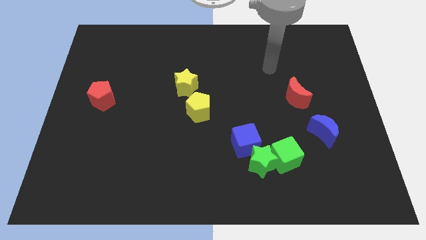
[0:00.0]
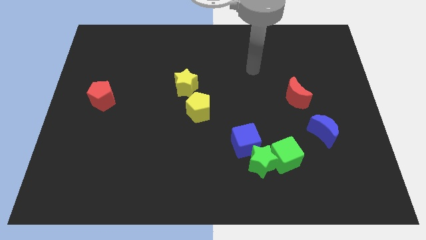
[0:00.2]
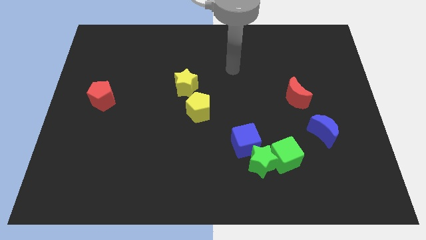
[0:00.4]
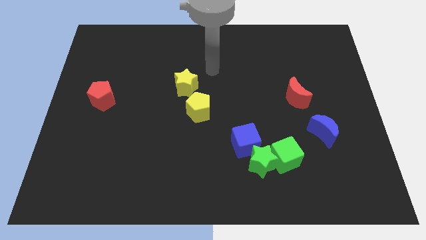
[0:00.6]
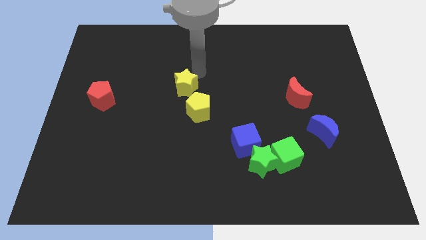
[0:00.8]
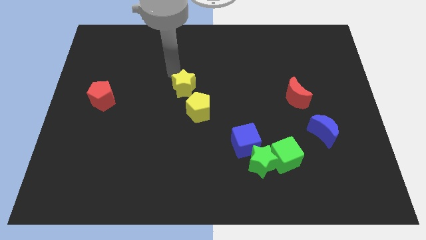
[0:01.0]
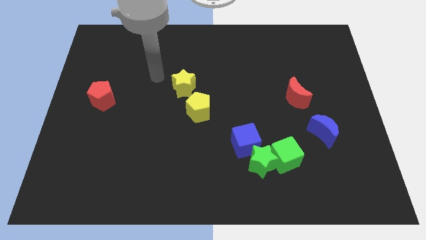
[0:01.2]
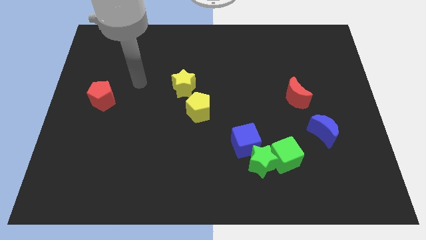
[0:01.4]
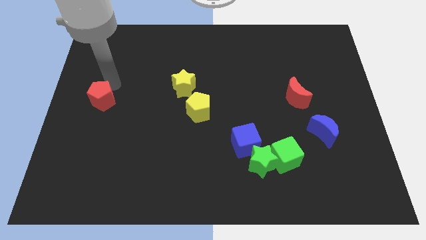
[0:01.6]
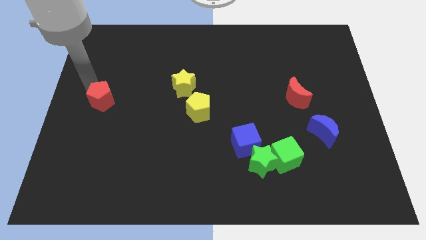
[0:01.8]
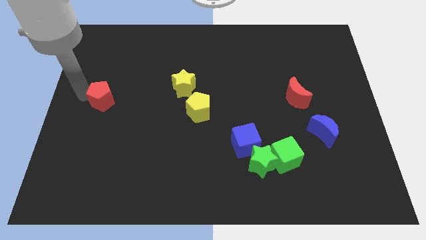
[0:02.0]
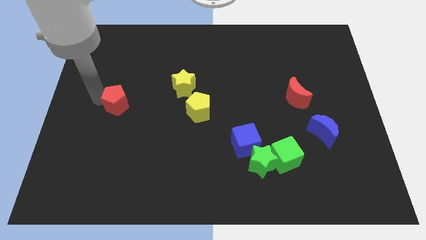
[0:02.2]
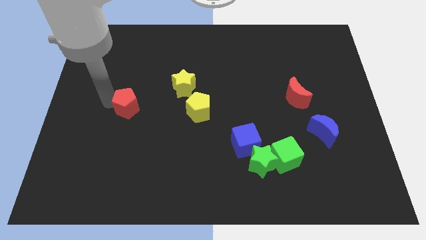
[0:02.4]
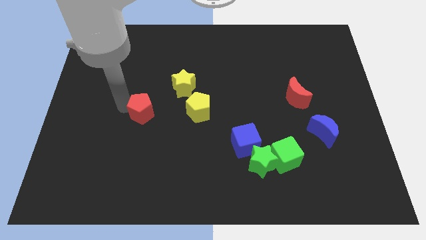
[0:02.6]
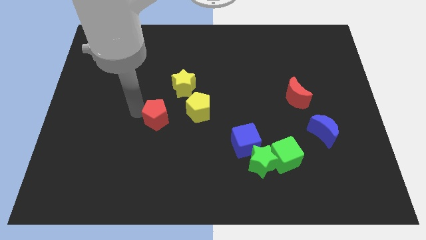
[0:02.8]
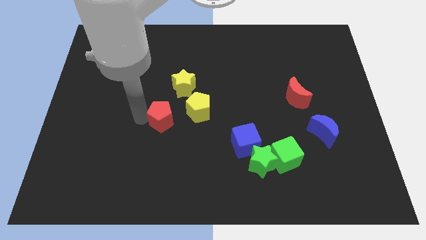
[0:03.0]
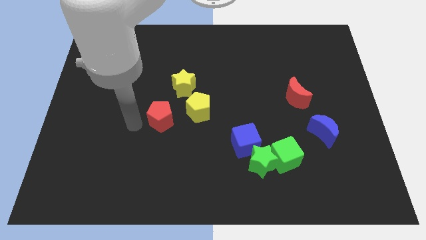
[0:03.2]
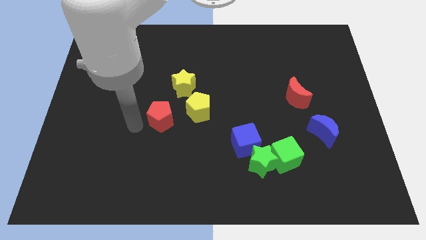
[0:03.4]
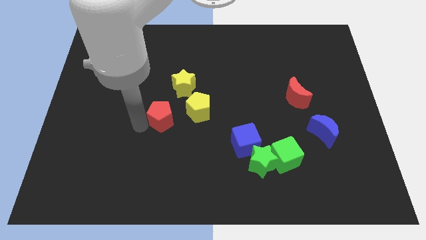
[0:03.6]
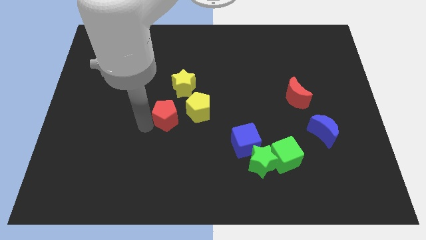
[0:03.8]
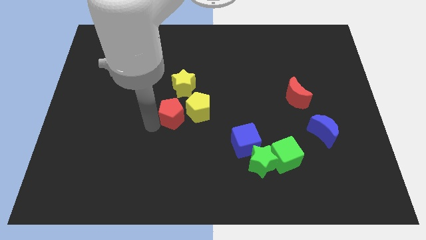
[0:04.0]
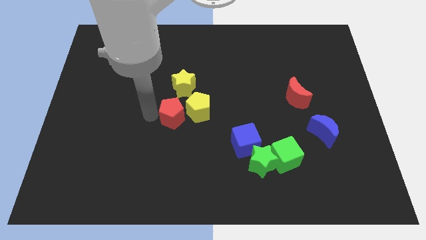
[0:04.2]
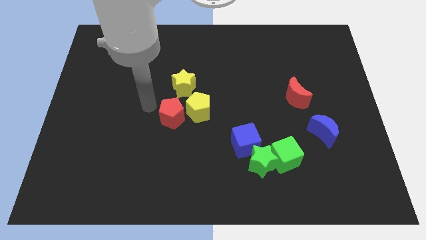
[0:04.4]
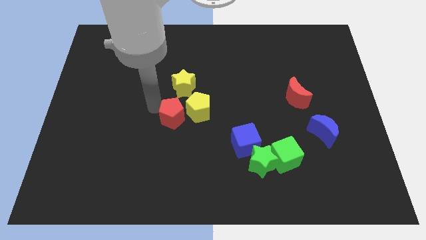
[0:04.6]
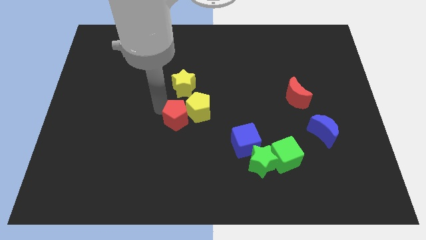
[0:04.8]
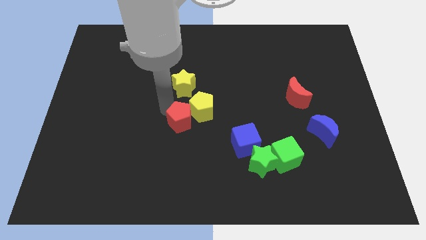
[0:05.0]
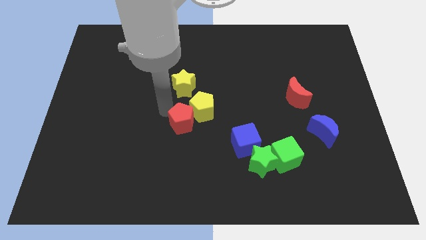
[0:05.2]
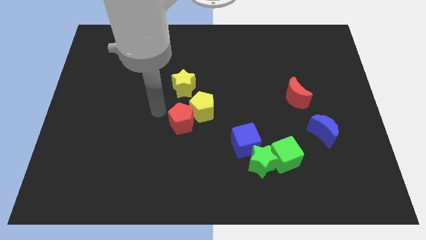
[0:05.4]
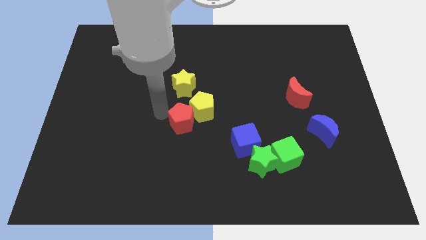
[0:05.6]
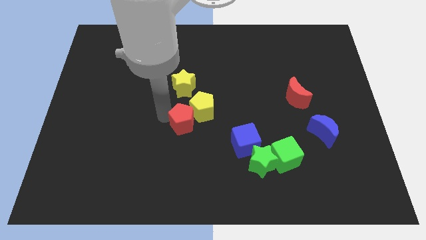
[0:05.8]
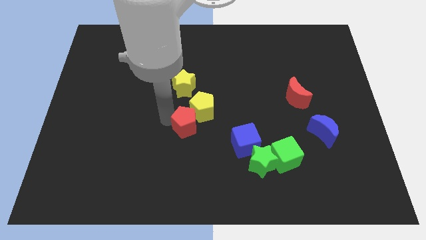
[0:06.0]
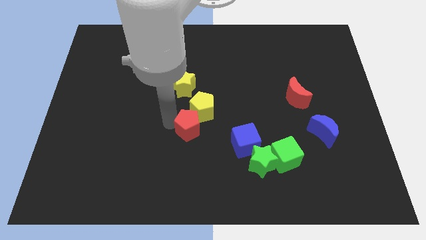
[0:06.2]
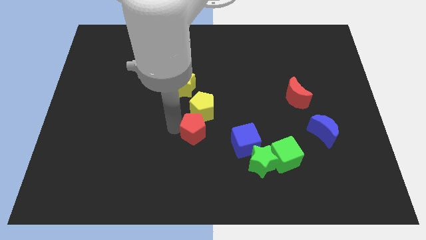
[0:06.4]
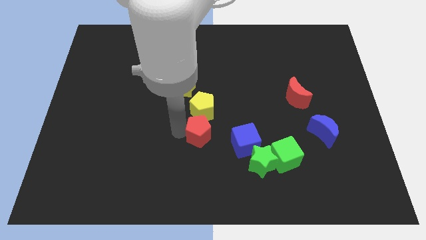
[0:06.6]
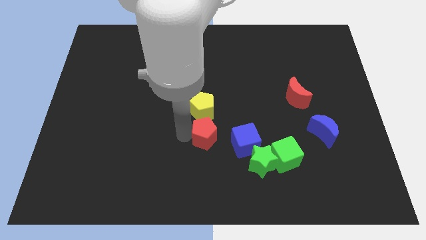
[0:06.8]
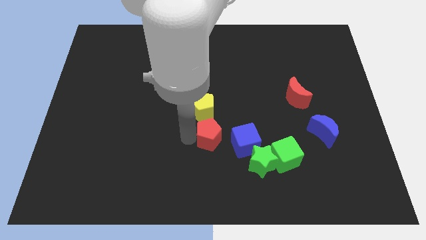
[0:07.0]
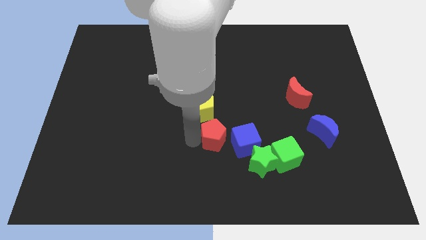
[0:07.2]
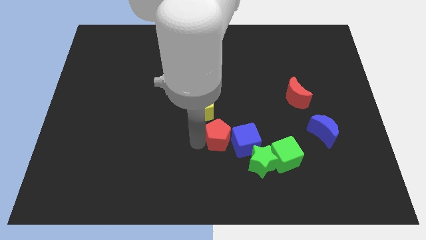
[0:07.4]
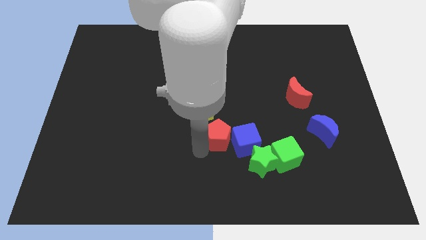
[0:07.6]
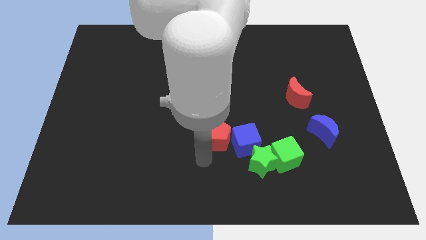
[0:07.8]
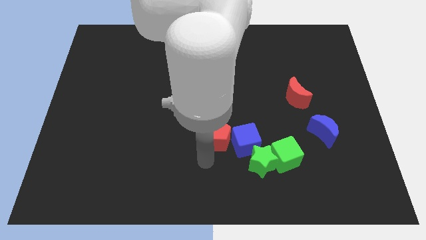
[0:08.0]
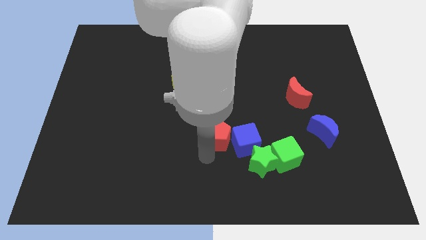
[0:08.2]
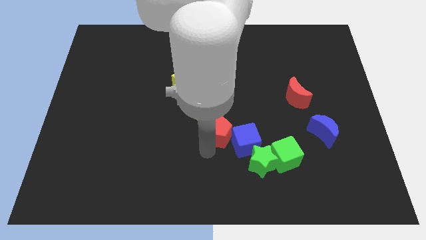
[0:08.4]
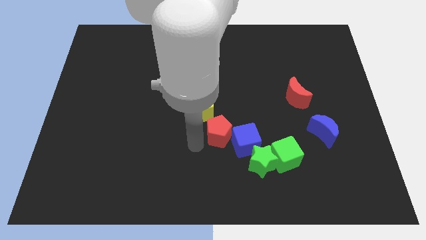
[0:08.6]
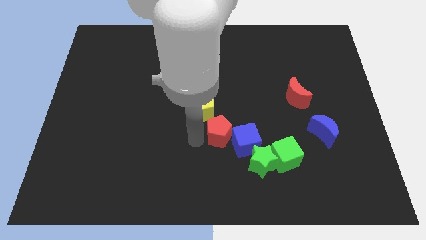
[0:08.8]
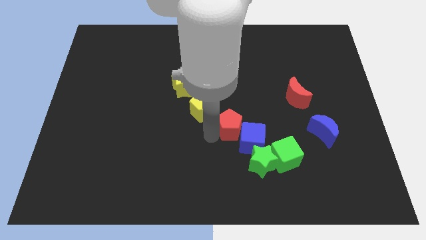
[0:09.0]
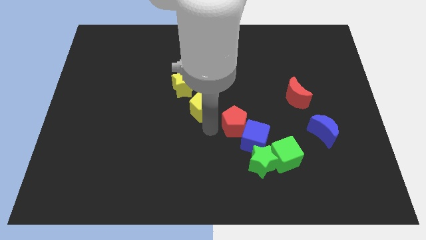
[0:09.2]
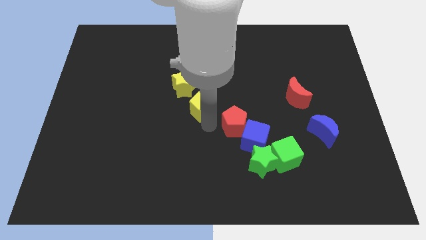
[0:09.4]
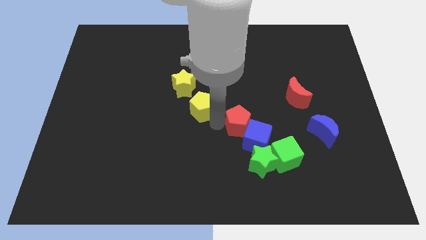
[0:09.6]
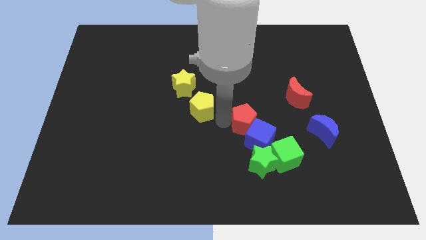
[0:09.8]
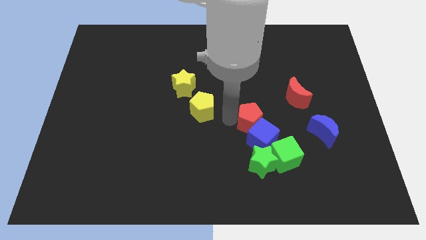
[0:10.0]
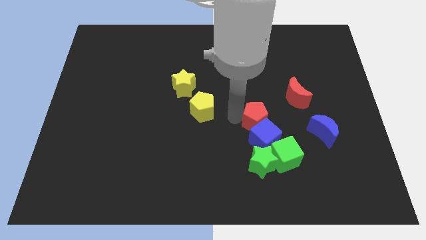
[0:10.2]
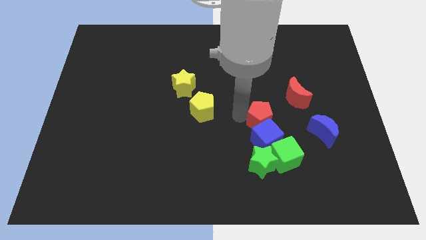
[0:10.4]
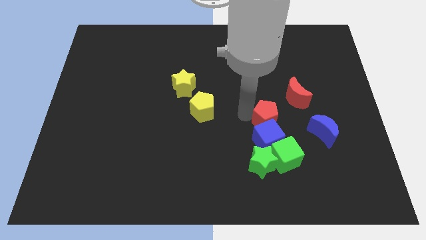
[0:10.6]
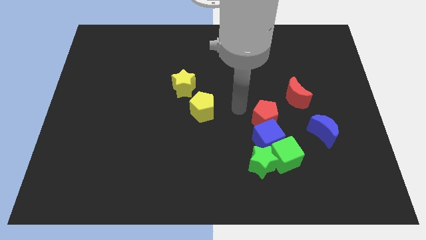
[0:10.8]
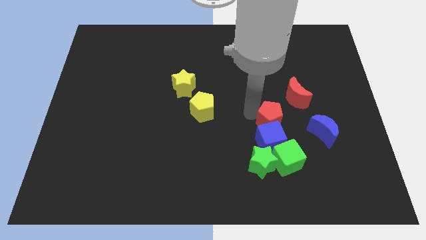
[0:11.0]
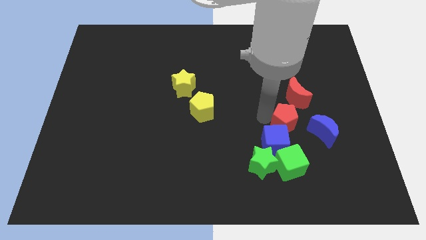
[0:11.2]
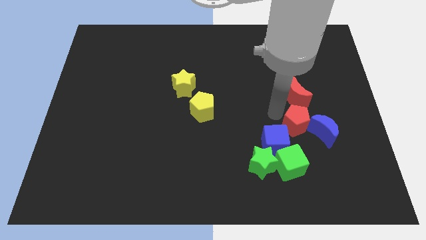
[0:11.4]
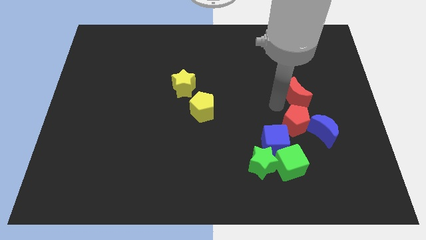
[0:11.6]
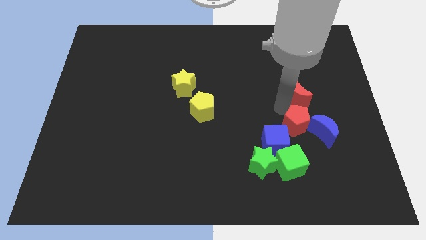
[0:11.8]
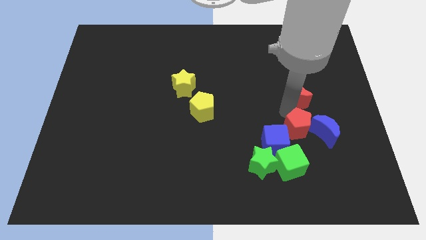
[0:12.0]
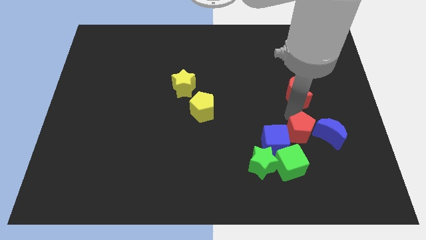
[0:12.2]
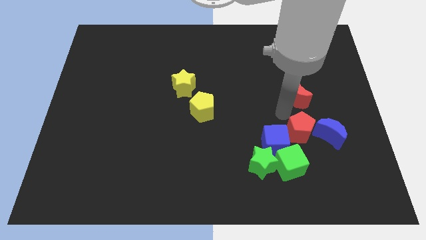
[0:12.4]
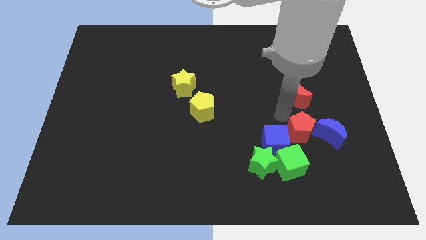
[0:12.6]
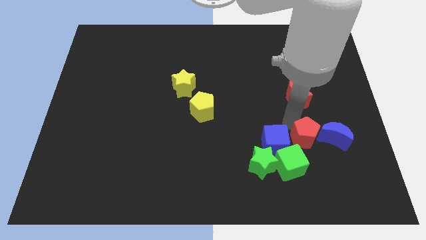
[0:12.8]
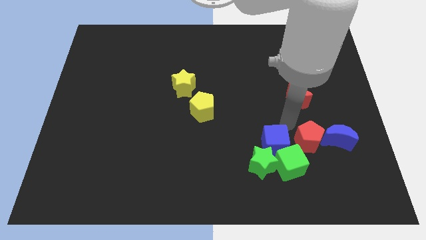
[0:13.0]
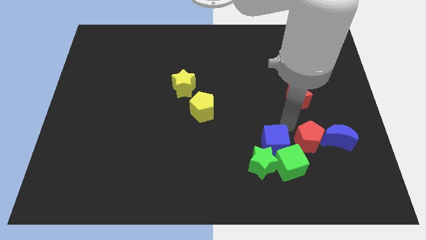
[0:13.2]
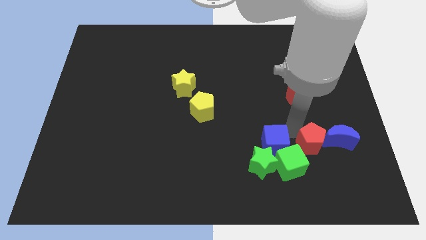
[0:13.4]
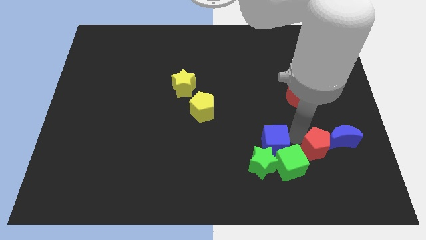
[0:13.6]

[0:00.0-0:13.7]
move the red pentagon to the right side of the green cube

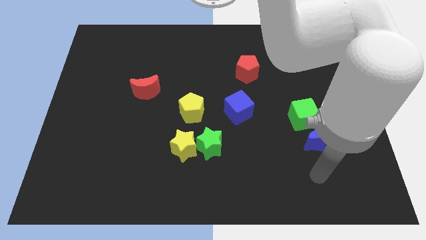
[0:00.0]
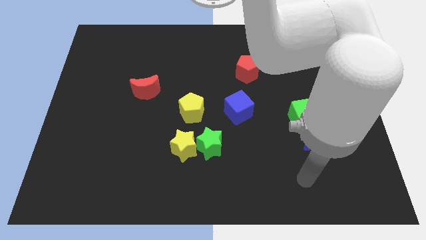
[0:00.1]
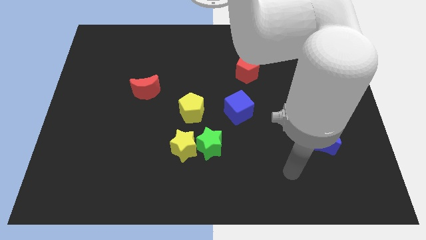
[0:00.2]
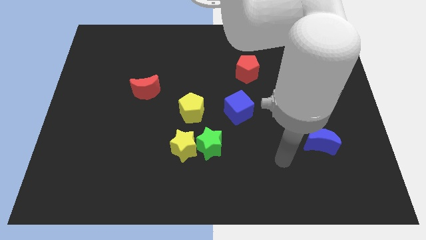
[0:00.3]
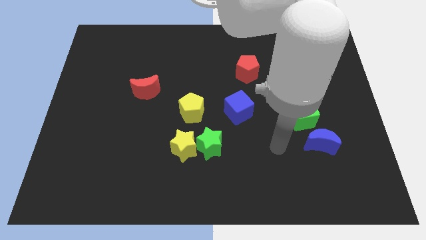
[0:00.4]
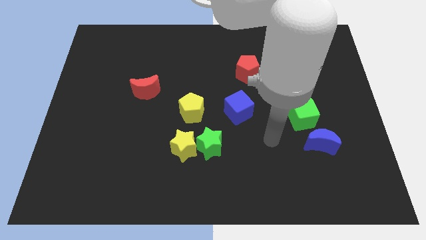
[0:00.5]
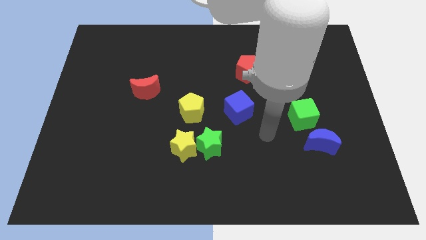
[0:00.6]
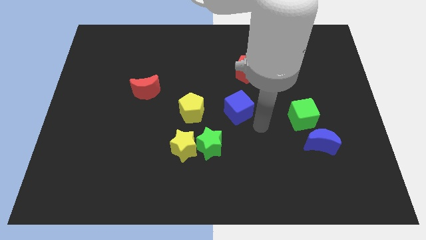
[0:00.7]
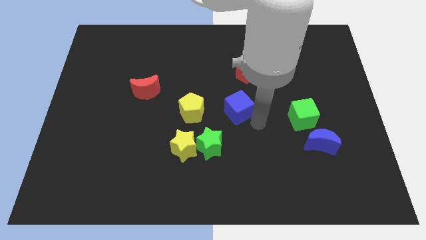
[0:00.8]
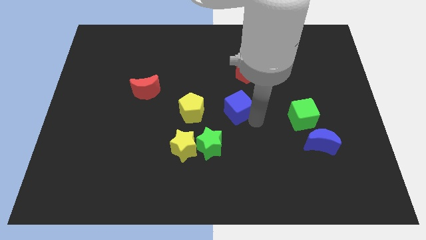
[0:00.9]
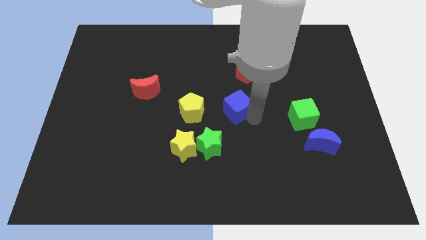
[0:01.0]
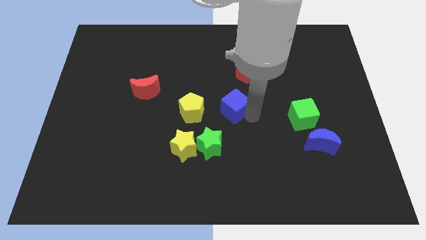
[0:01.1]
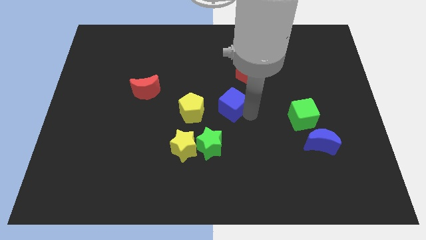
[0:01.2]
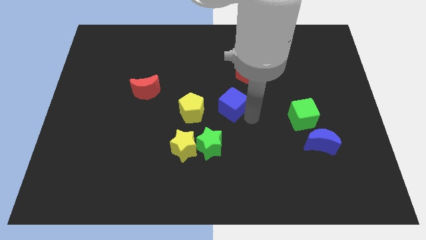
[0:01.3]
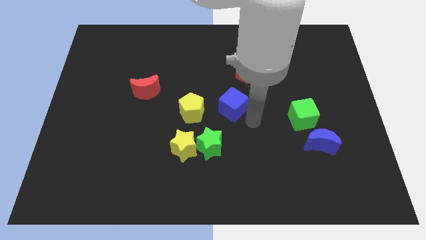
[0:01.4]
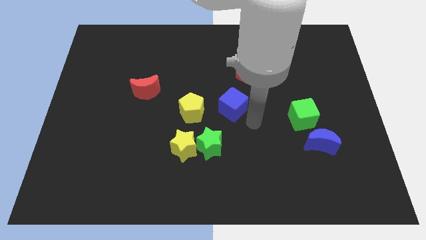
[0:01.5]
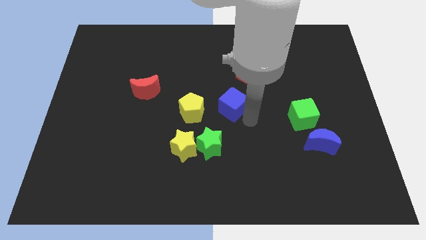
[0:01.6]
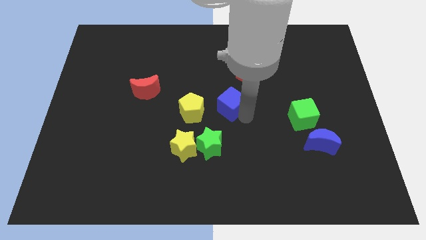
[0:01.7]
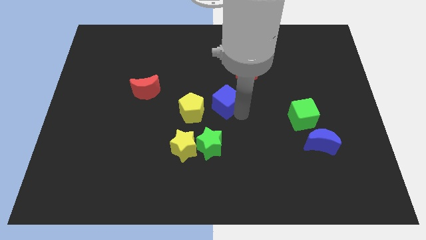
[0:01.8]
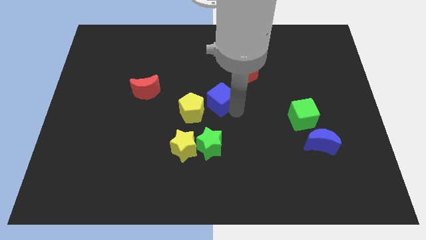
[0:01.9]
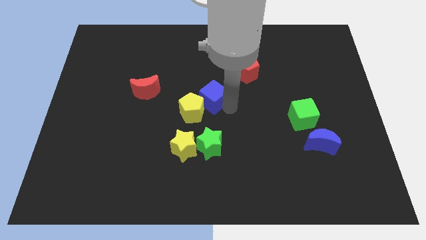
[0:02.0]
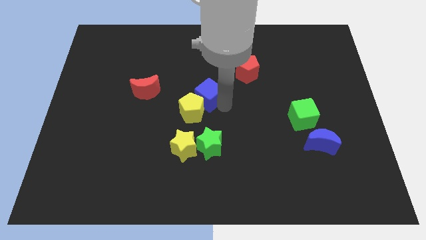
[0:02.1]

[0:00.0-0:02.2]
put the blue cube above the yellow pentagon
